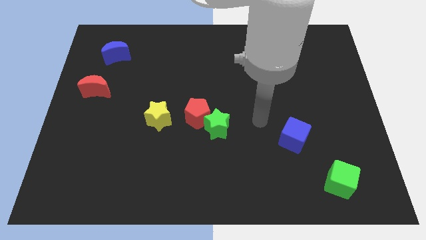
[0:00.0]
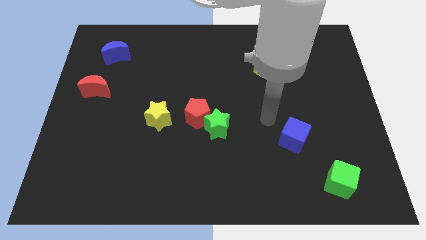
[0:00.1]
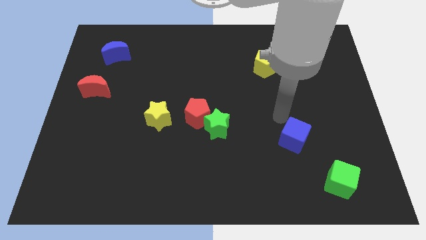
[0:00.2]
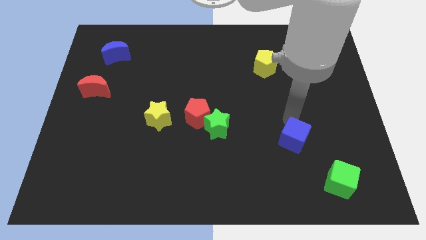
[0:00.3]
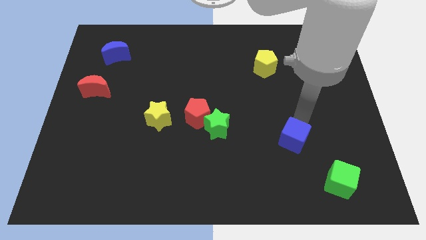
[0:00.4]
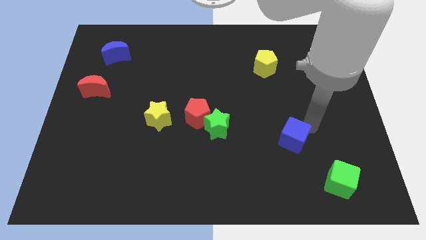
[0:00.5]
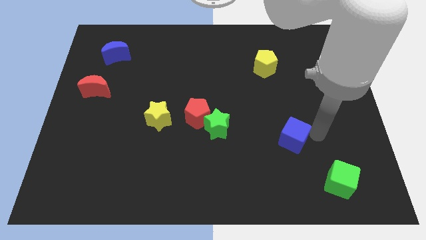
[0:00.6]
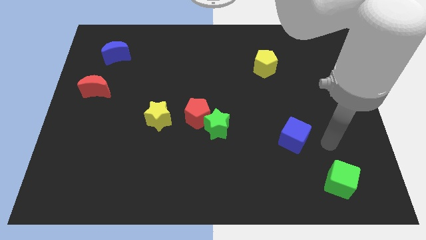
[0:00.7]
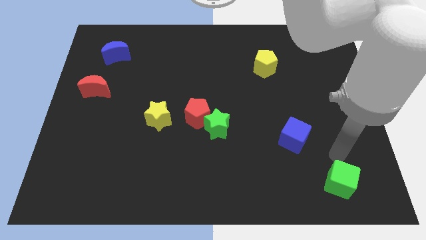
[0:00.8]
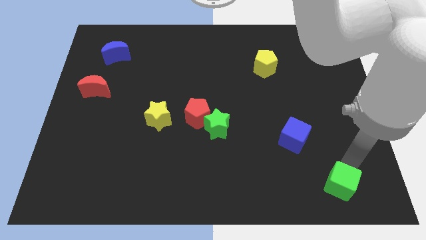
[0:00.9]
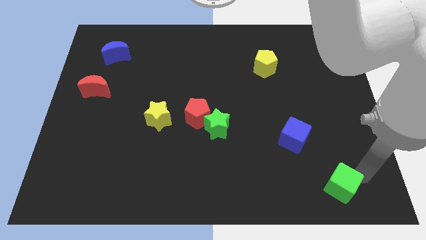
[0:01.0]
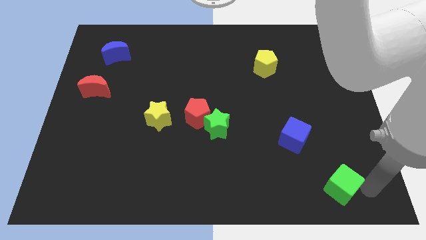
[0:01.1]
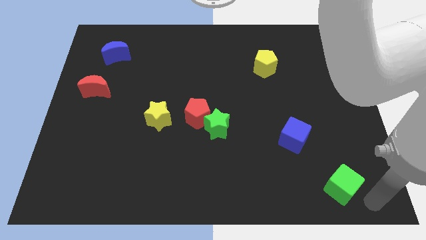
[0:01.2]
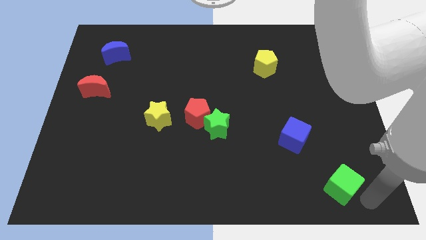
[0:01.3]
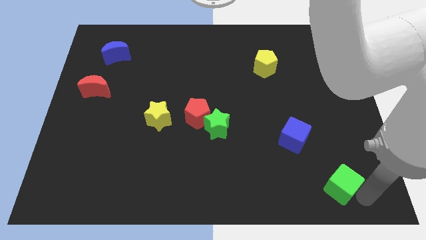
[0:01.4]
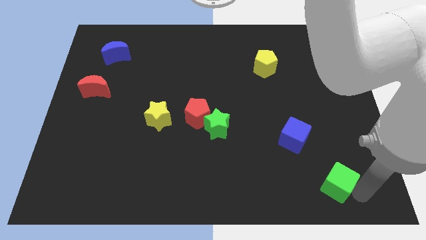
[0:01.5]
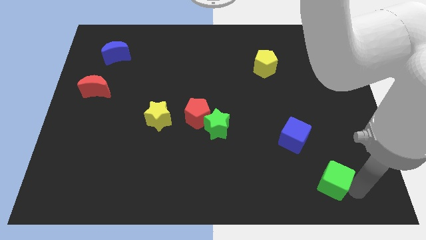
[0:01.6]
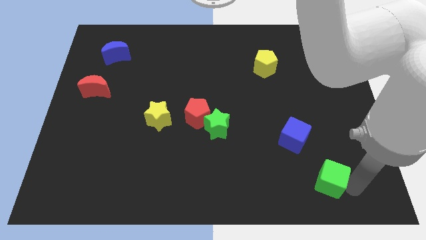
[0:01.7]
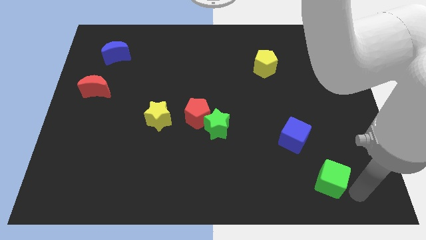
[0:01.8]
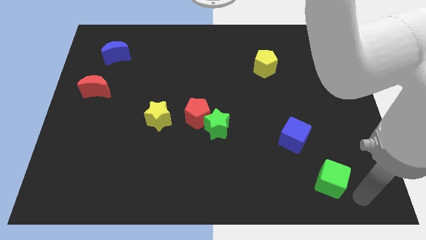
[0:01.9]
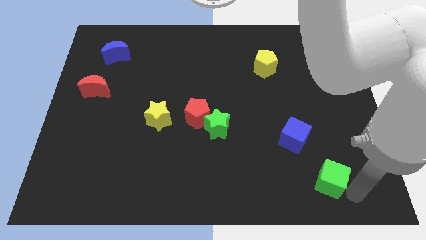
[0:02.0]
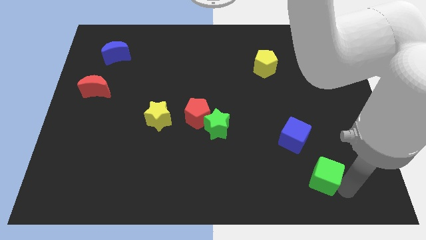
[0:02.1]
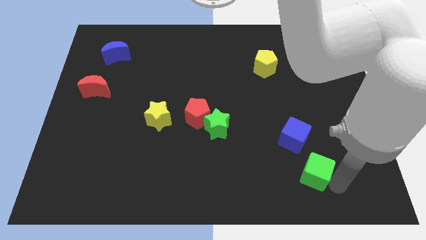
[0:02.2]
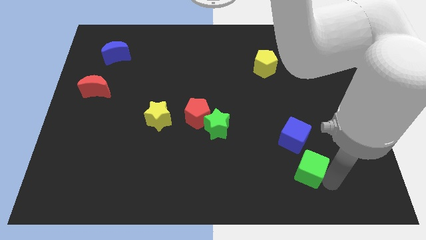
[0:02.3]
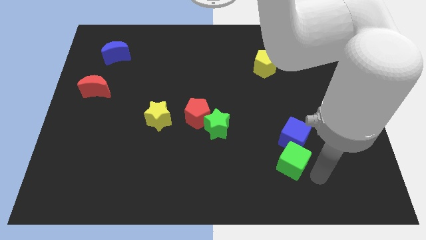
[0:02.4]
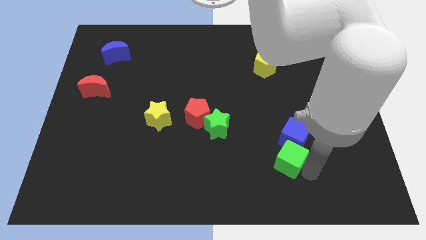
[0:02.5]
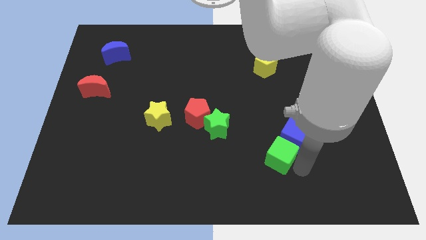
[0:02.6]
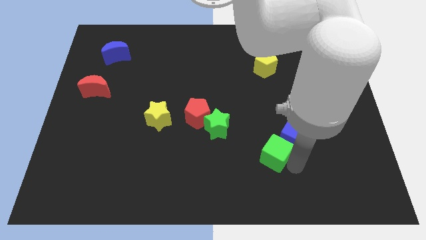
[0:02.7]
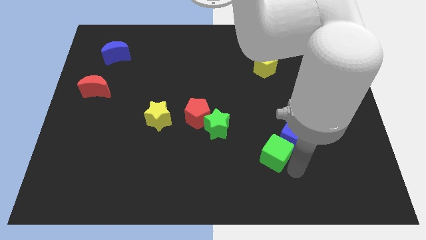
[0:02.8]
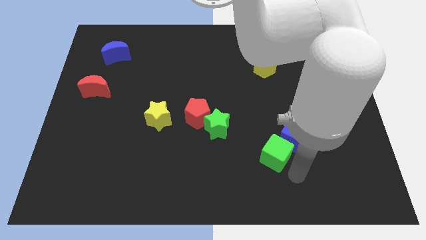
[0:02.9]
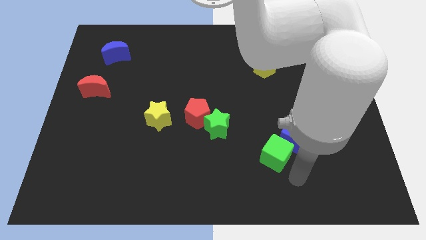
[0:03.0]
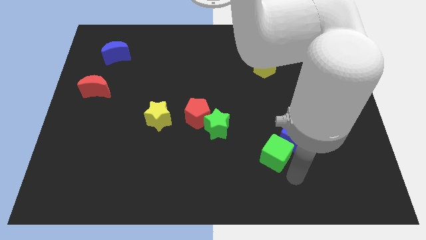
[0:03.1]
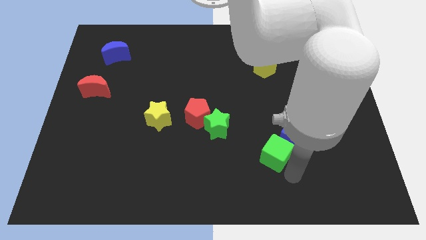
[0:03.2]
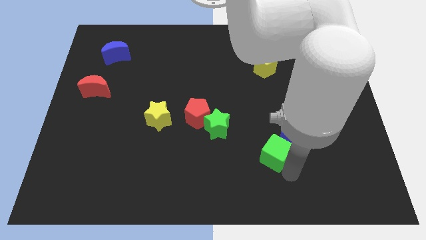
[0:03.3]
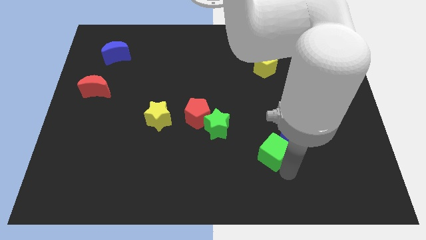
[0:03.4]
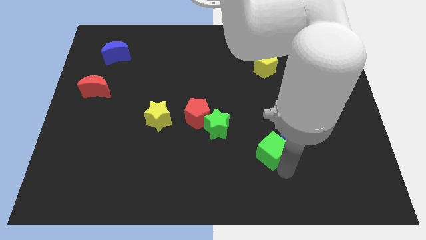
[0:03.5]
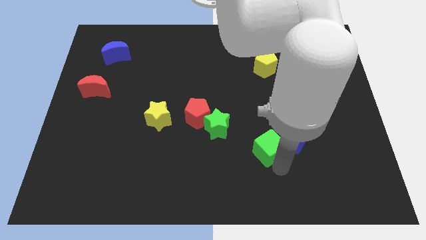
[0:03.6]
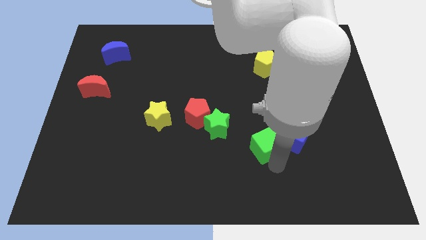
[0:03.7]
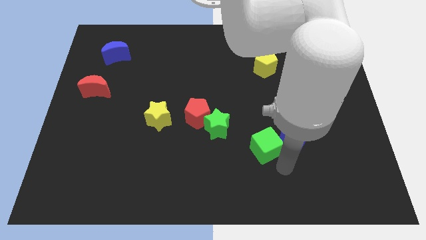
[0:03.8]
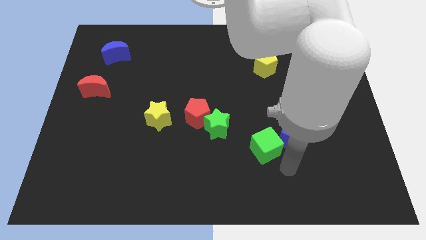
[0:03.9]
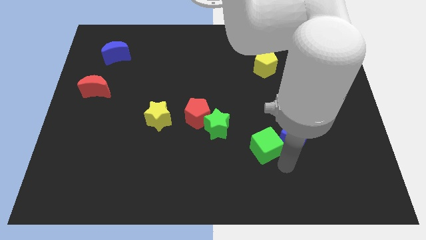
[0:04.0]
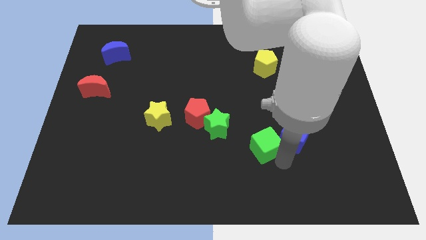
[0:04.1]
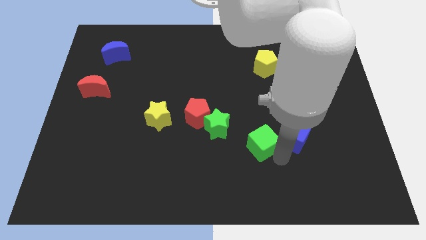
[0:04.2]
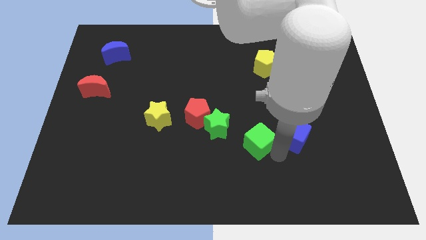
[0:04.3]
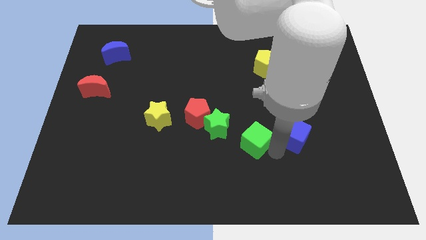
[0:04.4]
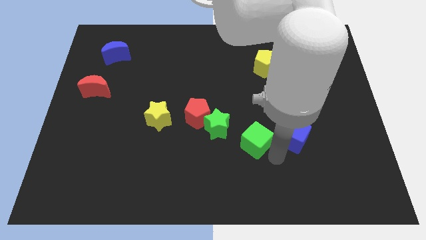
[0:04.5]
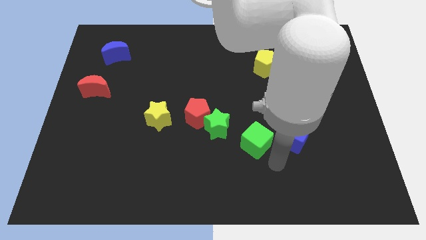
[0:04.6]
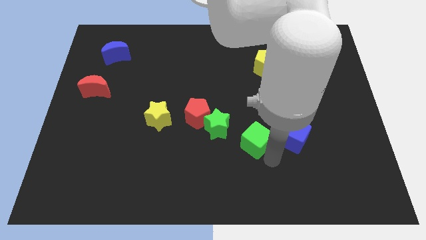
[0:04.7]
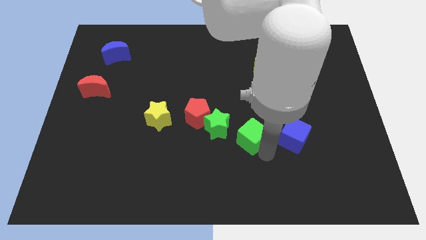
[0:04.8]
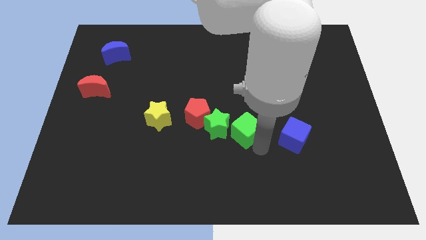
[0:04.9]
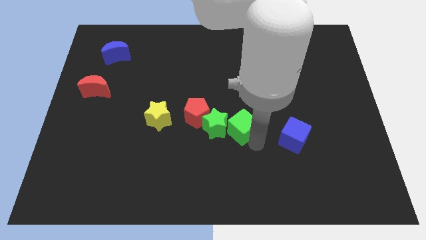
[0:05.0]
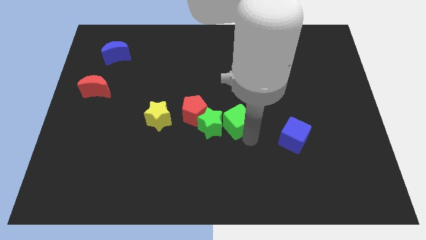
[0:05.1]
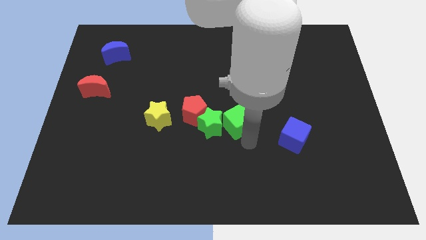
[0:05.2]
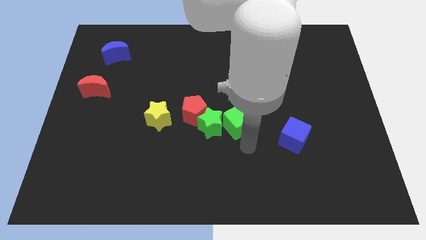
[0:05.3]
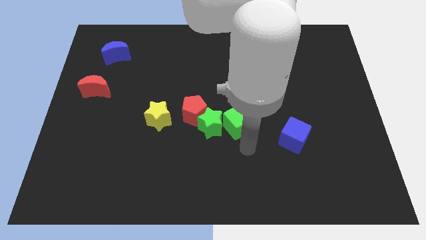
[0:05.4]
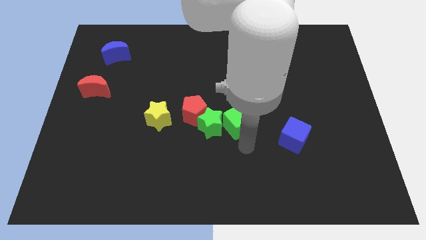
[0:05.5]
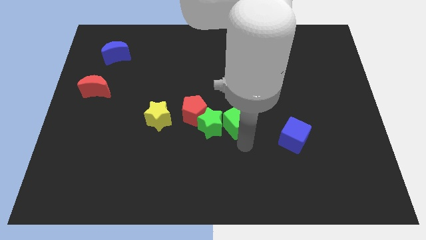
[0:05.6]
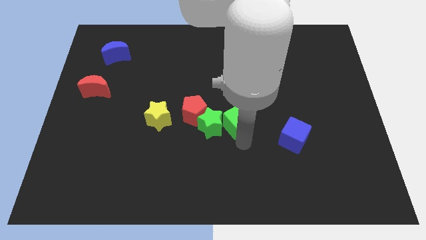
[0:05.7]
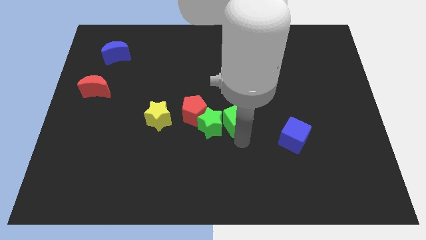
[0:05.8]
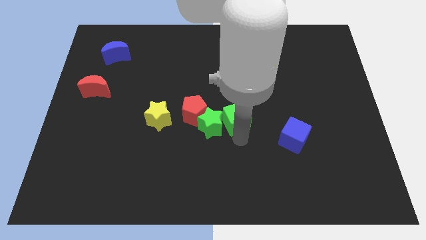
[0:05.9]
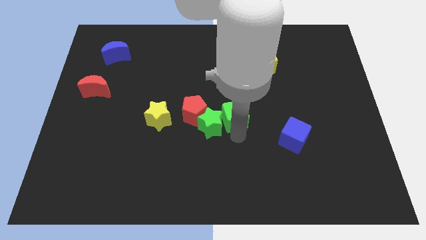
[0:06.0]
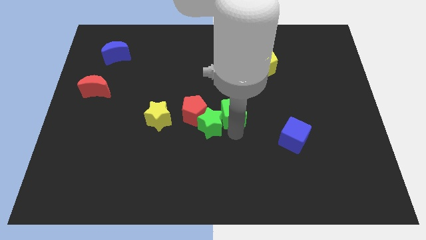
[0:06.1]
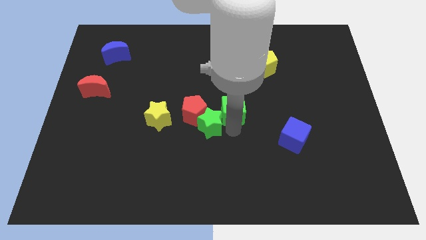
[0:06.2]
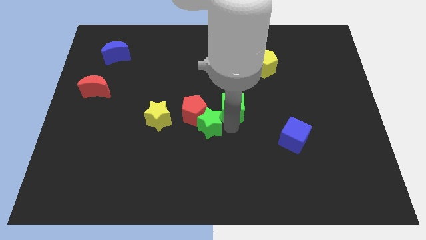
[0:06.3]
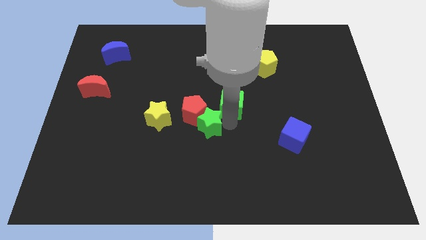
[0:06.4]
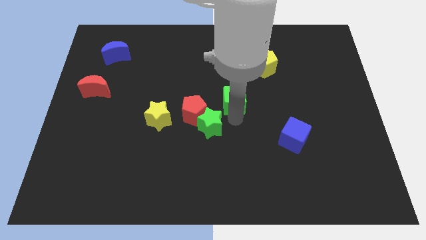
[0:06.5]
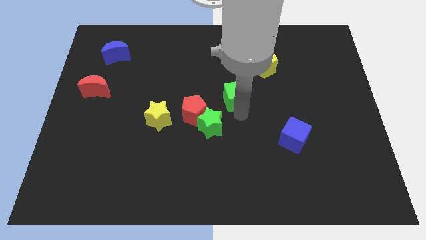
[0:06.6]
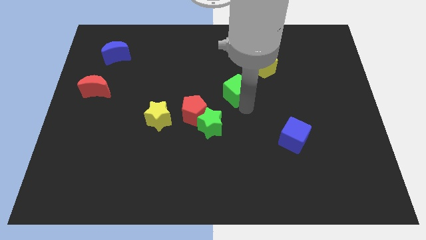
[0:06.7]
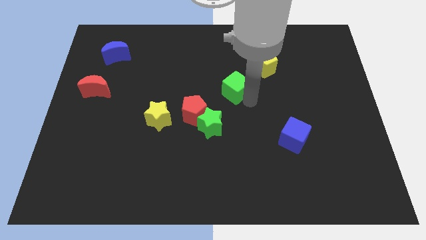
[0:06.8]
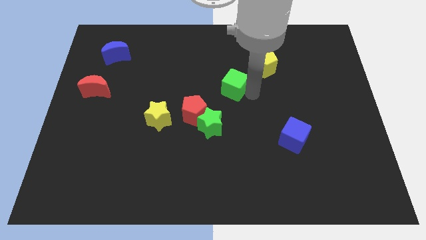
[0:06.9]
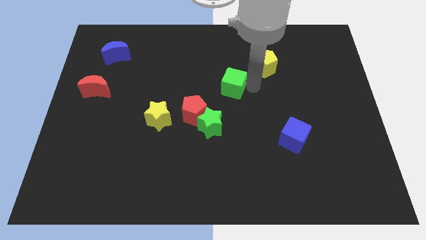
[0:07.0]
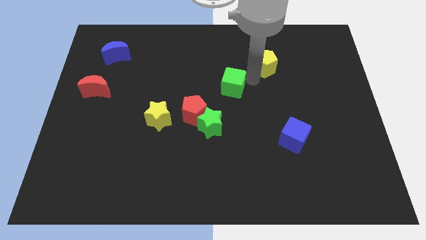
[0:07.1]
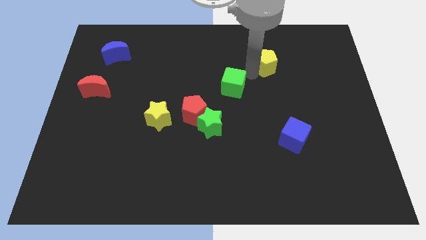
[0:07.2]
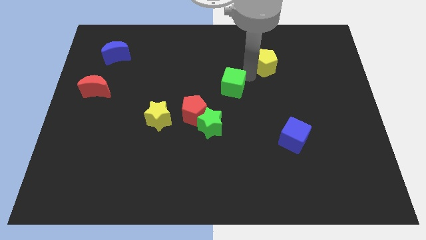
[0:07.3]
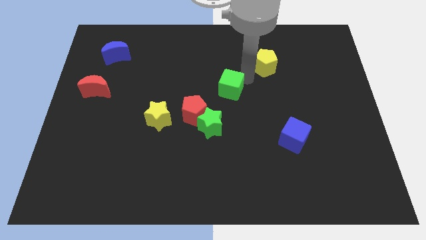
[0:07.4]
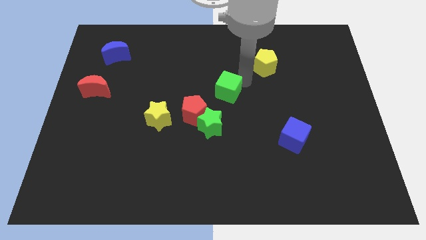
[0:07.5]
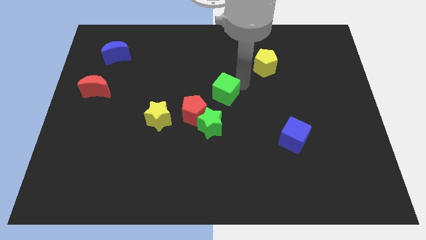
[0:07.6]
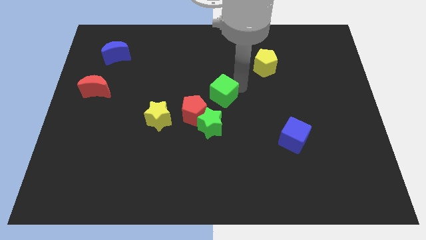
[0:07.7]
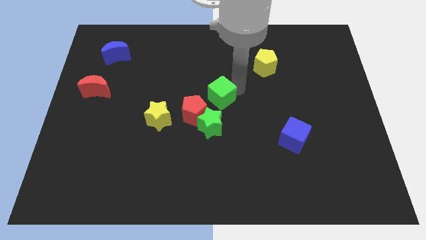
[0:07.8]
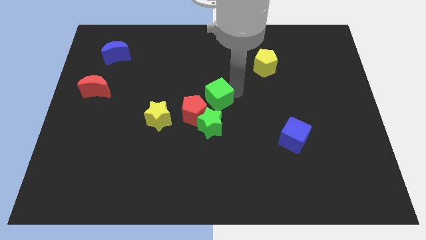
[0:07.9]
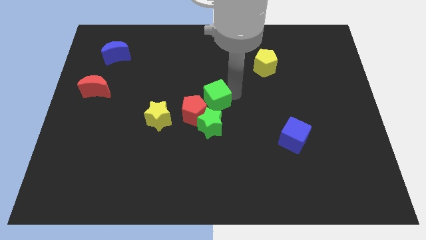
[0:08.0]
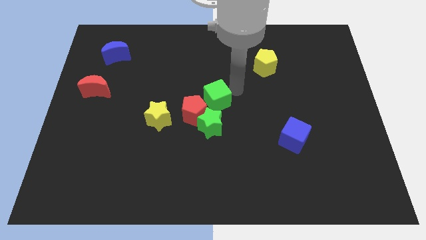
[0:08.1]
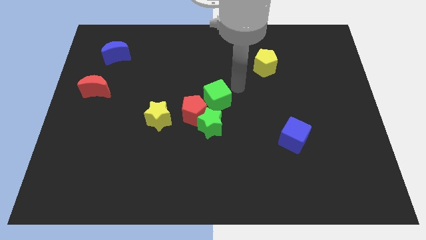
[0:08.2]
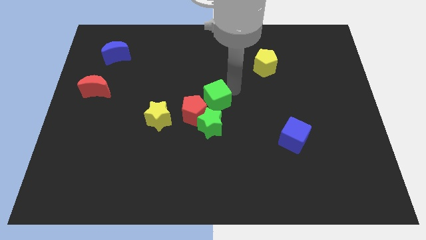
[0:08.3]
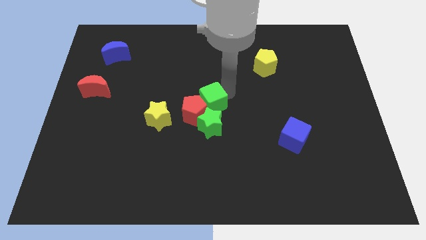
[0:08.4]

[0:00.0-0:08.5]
move the green cube next to the red pentagon
